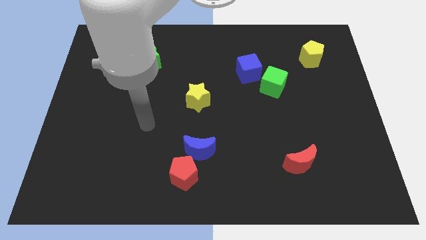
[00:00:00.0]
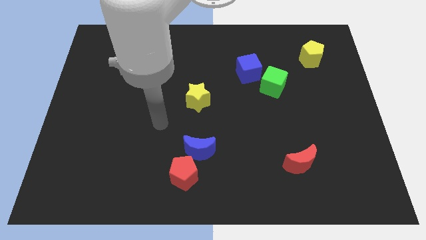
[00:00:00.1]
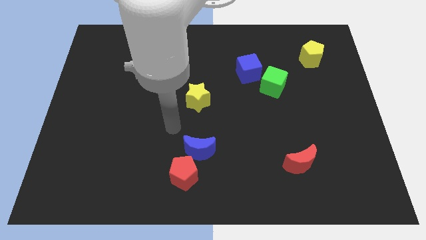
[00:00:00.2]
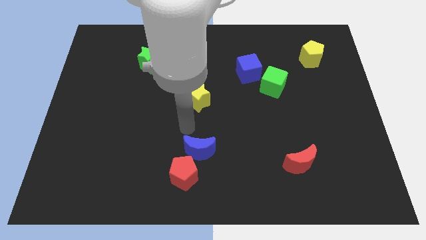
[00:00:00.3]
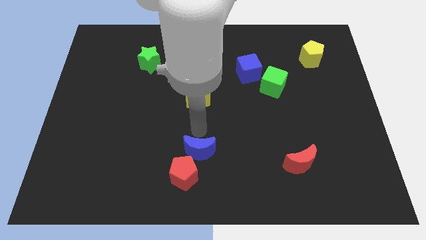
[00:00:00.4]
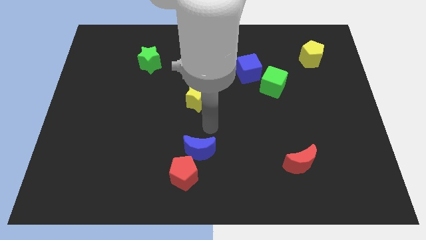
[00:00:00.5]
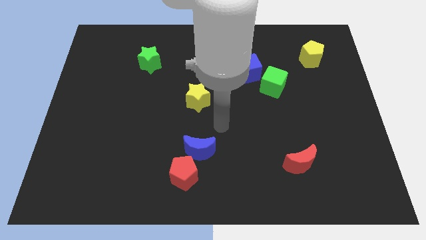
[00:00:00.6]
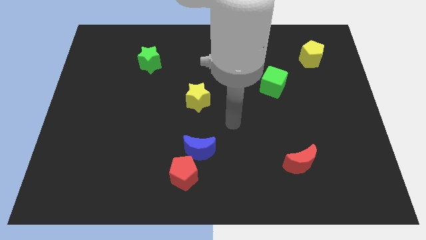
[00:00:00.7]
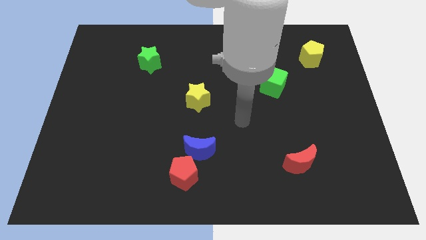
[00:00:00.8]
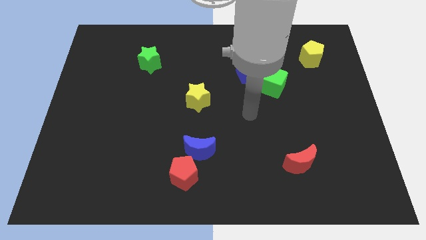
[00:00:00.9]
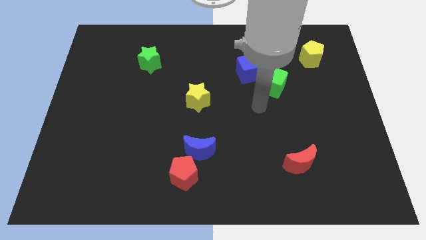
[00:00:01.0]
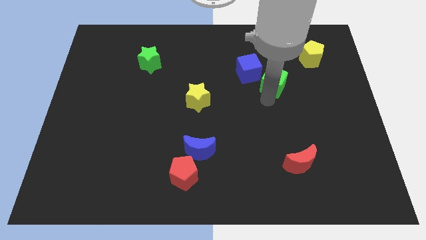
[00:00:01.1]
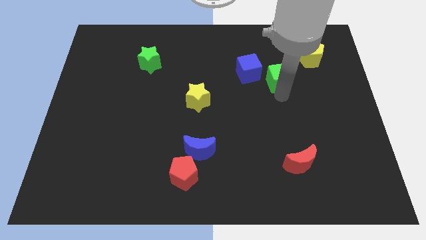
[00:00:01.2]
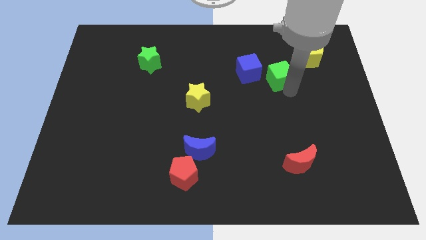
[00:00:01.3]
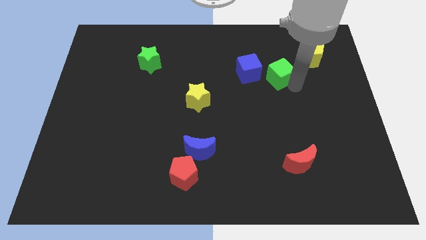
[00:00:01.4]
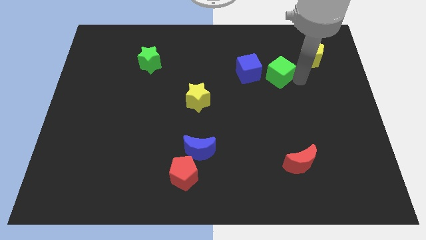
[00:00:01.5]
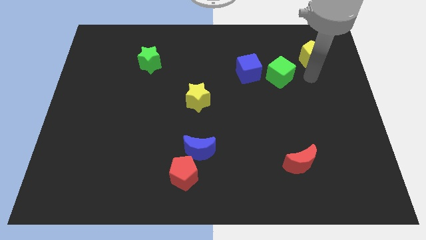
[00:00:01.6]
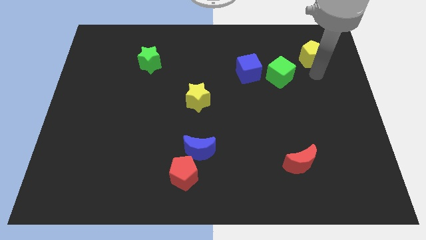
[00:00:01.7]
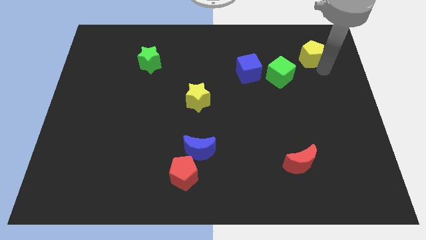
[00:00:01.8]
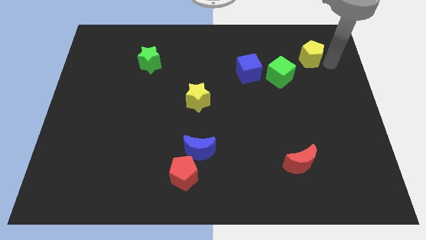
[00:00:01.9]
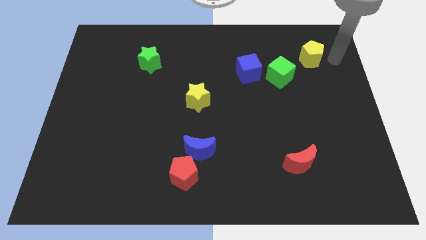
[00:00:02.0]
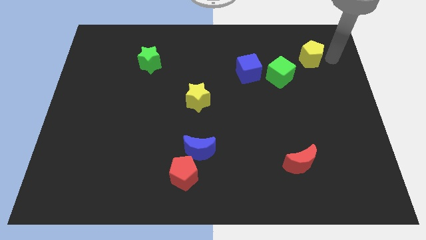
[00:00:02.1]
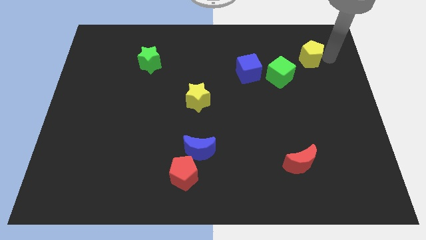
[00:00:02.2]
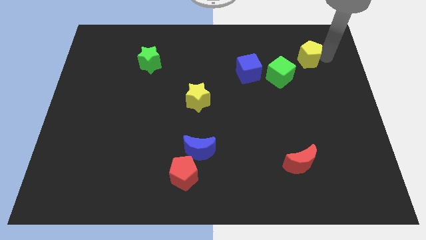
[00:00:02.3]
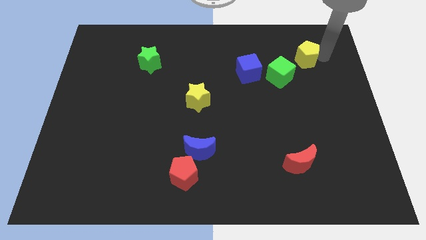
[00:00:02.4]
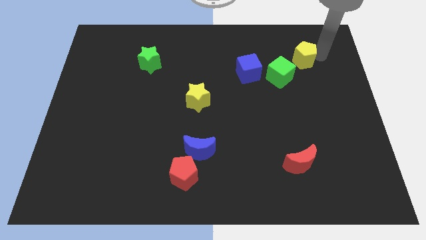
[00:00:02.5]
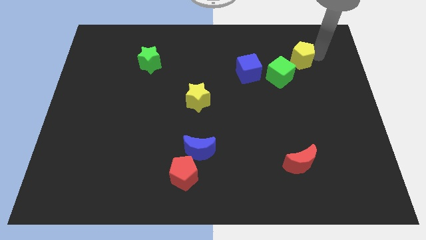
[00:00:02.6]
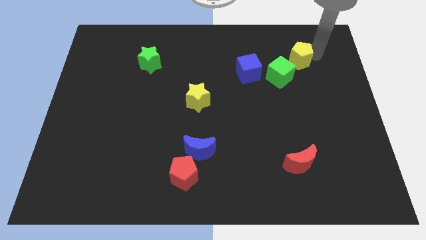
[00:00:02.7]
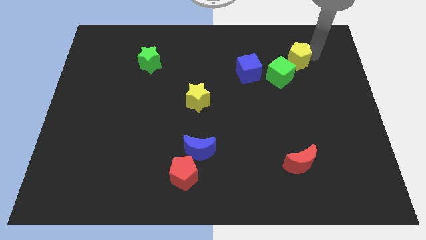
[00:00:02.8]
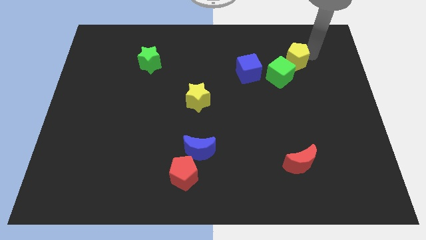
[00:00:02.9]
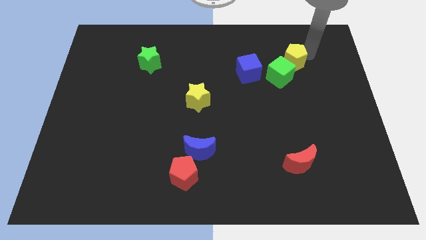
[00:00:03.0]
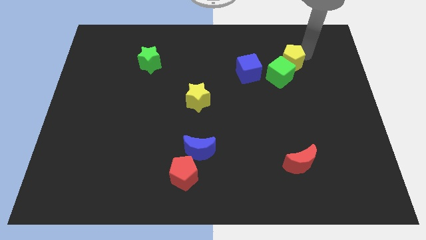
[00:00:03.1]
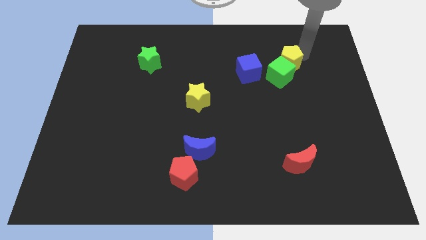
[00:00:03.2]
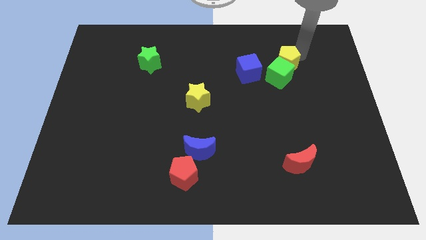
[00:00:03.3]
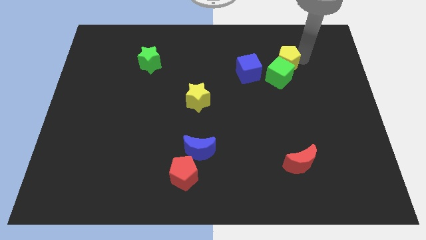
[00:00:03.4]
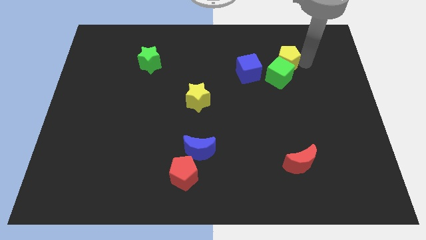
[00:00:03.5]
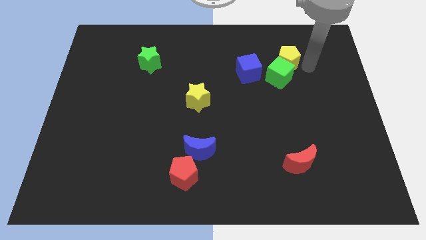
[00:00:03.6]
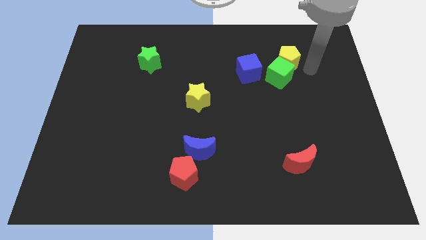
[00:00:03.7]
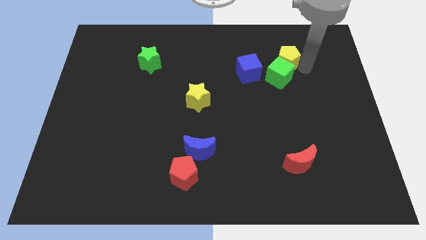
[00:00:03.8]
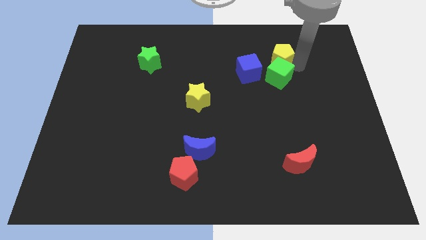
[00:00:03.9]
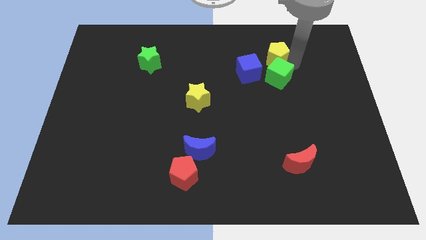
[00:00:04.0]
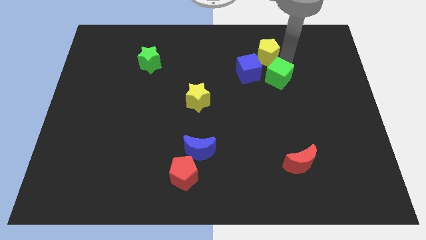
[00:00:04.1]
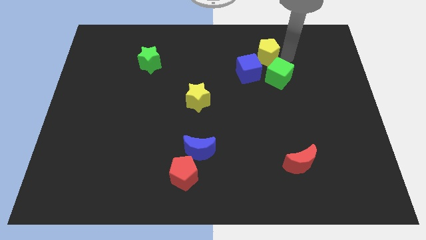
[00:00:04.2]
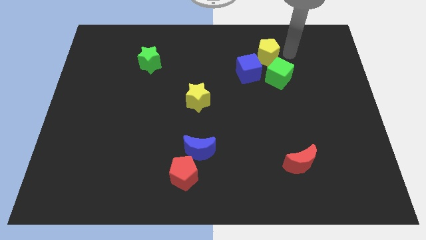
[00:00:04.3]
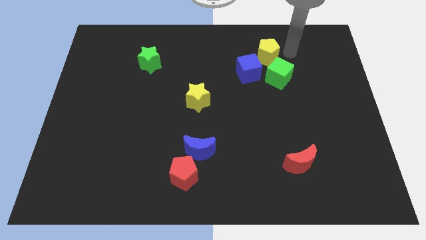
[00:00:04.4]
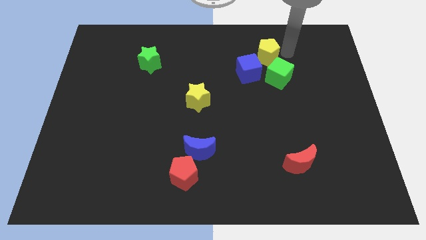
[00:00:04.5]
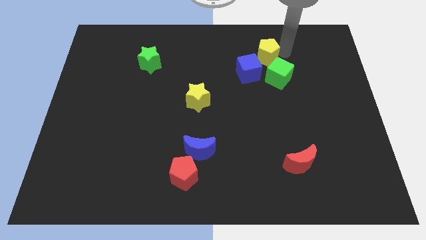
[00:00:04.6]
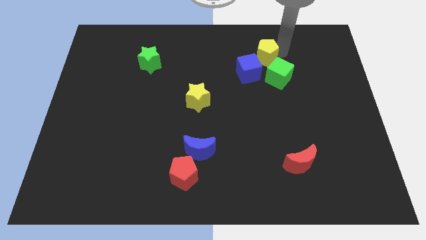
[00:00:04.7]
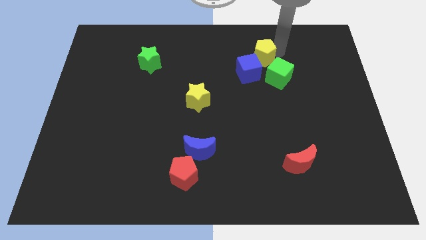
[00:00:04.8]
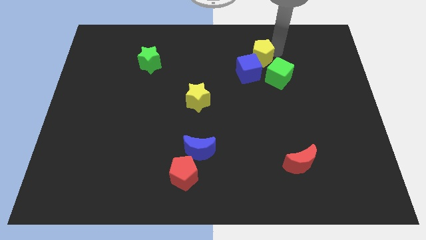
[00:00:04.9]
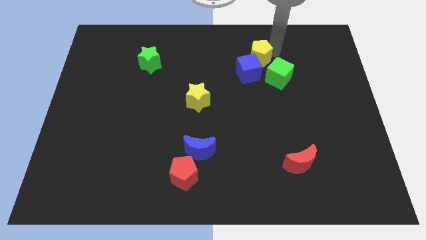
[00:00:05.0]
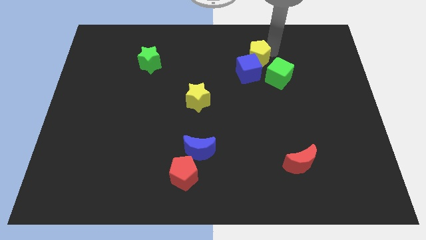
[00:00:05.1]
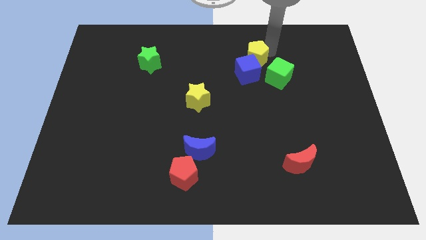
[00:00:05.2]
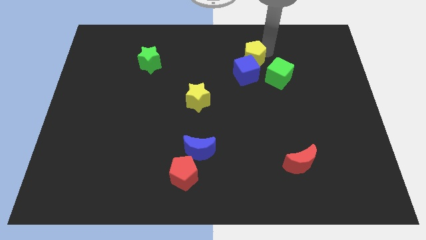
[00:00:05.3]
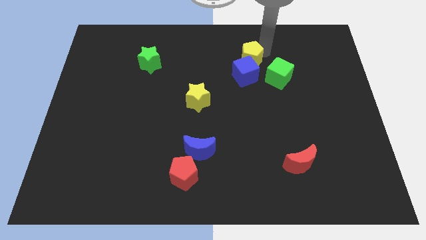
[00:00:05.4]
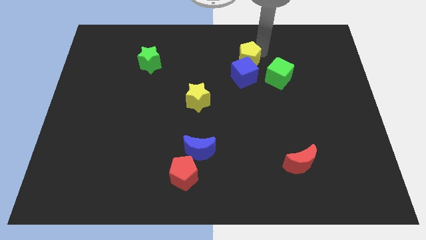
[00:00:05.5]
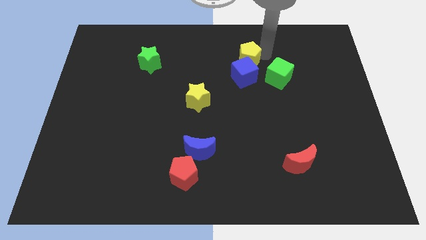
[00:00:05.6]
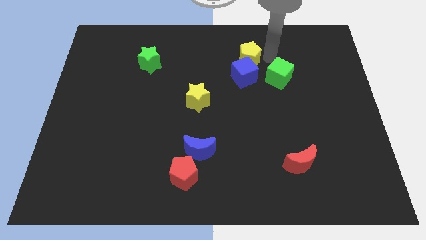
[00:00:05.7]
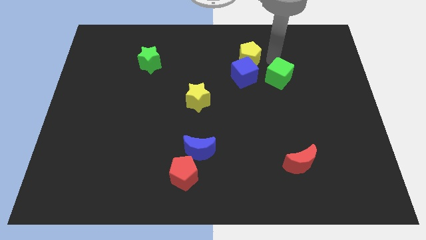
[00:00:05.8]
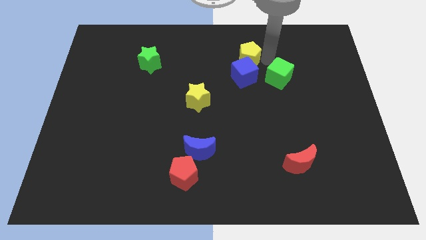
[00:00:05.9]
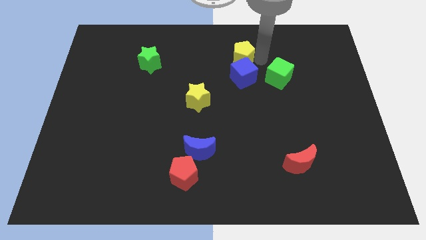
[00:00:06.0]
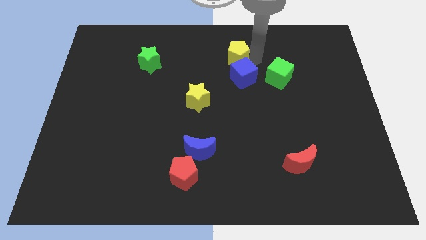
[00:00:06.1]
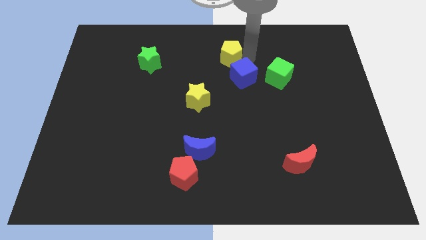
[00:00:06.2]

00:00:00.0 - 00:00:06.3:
push the yellow pentagon to the left

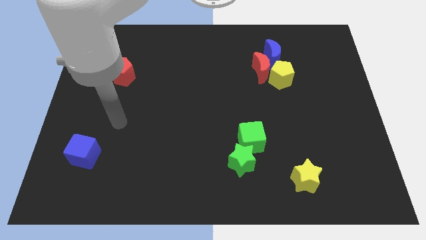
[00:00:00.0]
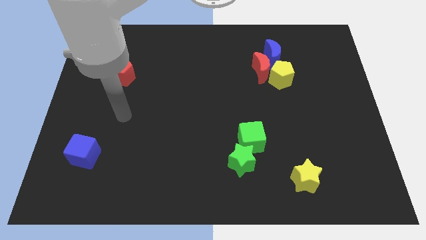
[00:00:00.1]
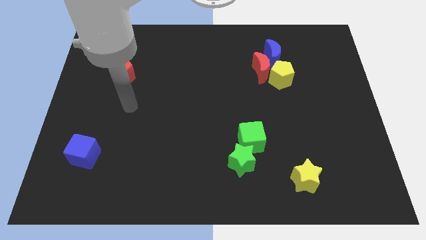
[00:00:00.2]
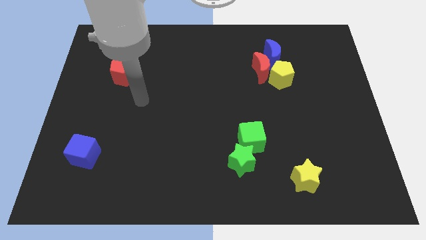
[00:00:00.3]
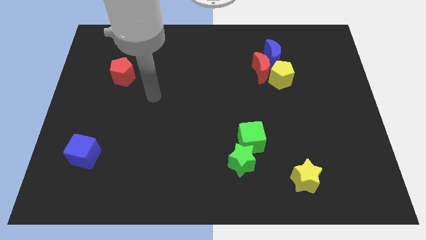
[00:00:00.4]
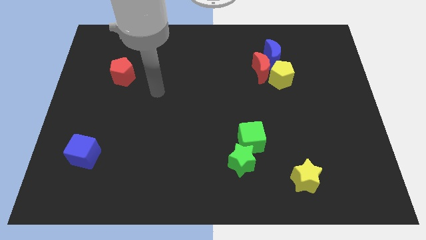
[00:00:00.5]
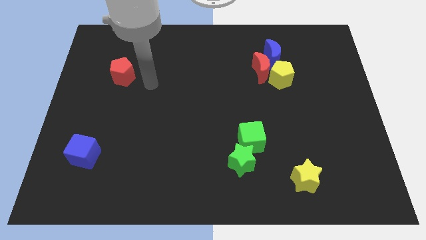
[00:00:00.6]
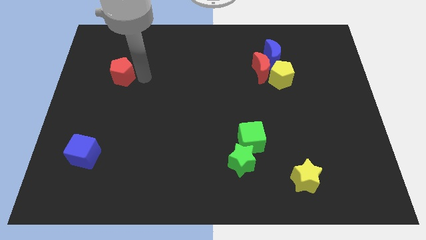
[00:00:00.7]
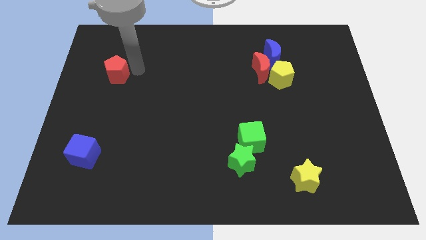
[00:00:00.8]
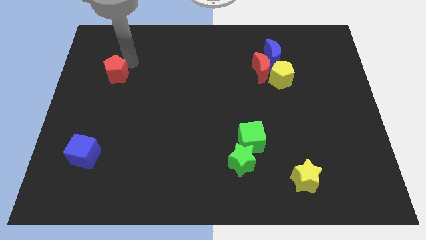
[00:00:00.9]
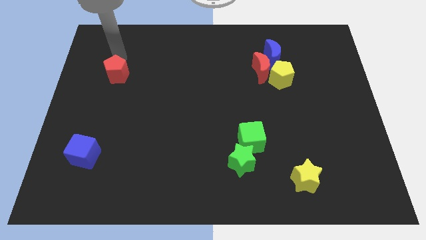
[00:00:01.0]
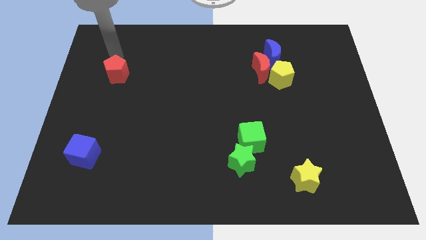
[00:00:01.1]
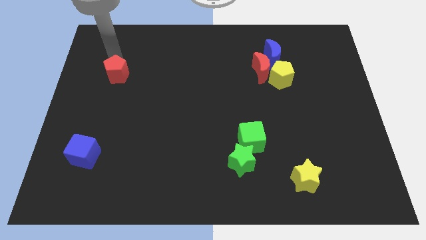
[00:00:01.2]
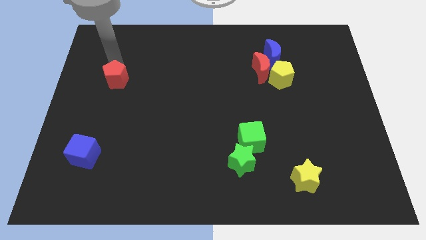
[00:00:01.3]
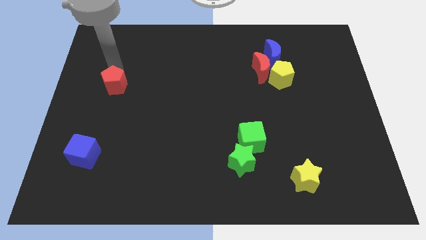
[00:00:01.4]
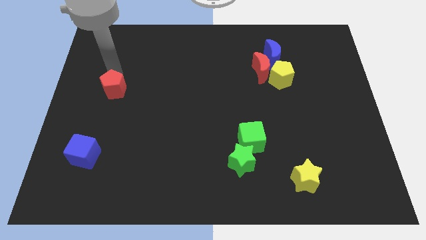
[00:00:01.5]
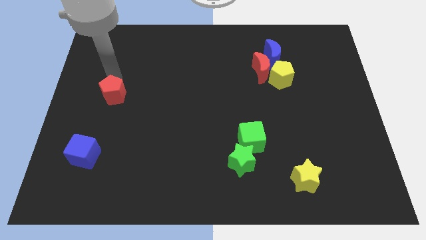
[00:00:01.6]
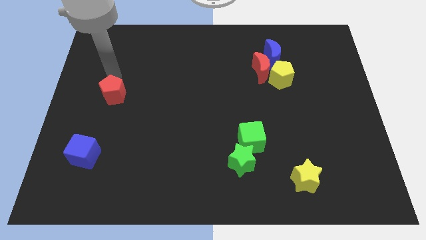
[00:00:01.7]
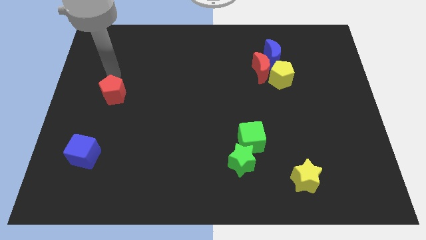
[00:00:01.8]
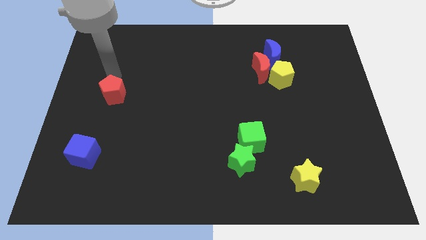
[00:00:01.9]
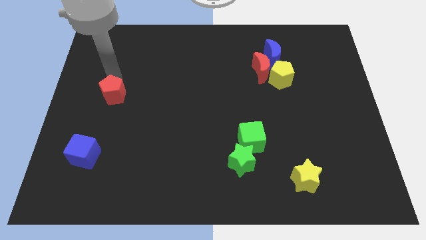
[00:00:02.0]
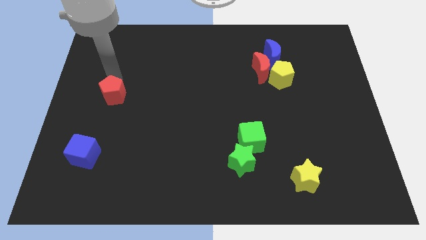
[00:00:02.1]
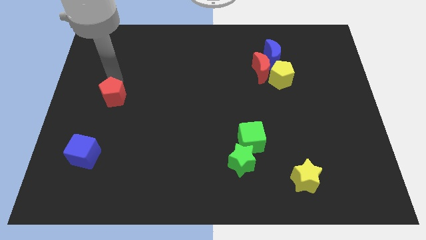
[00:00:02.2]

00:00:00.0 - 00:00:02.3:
slightly move the red pentagon down
